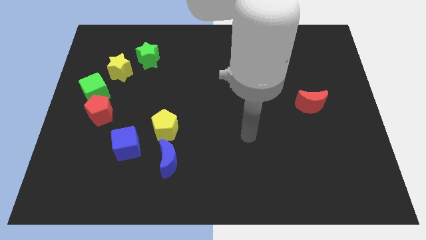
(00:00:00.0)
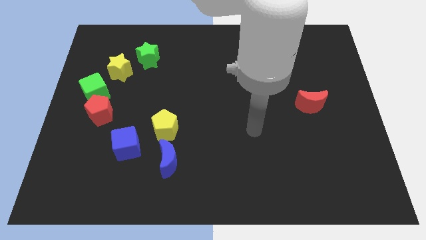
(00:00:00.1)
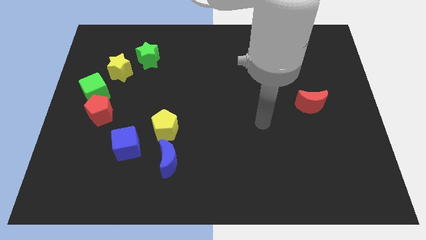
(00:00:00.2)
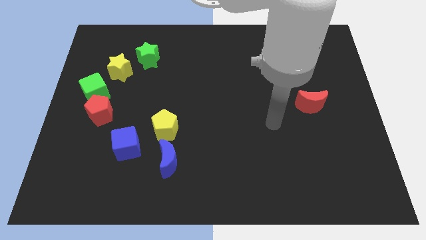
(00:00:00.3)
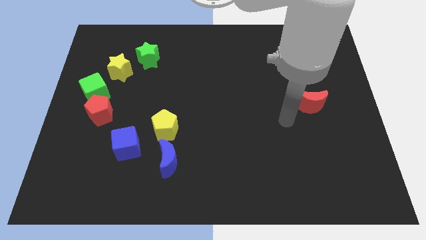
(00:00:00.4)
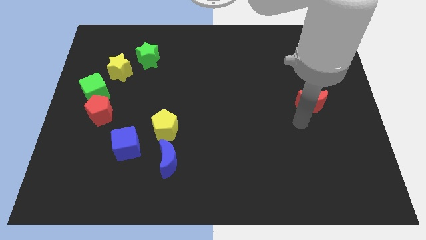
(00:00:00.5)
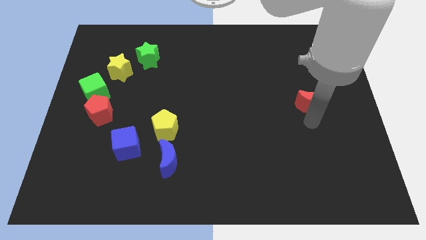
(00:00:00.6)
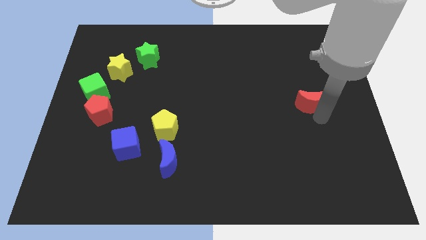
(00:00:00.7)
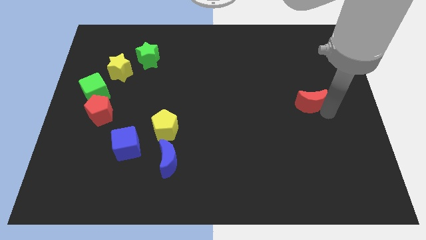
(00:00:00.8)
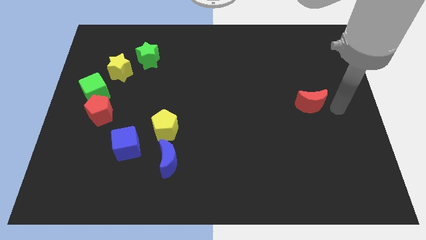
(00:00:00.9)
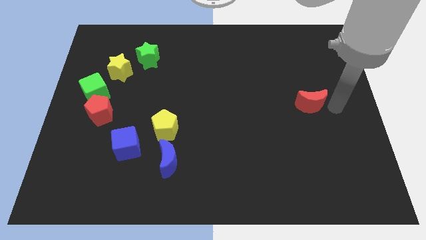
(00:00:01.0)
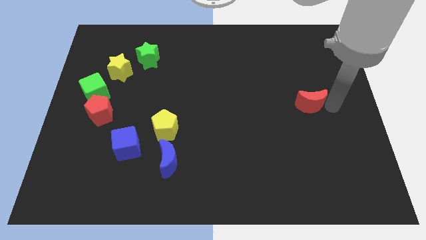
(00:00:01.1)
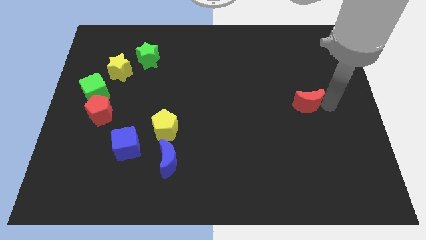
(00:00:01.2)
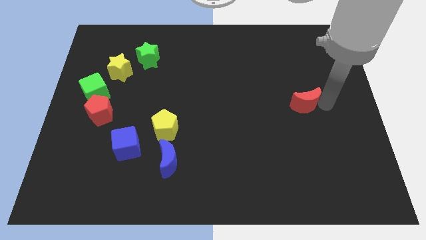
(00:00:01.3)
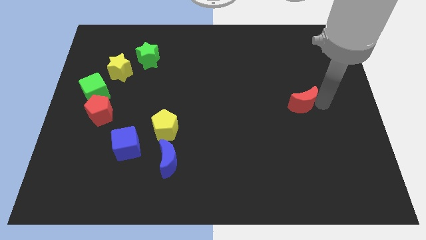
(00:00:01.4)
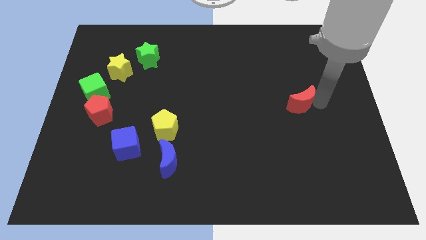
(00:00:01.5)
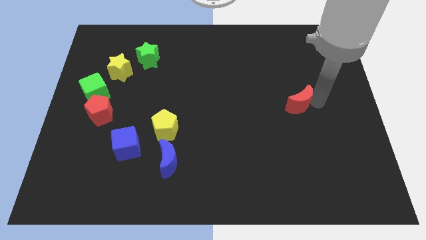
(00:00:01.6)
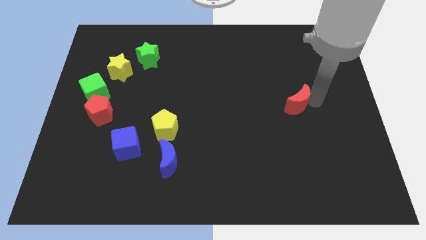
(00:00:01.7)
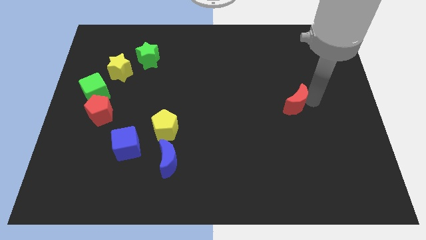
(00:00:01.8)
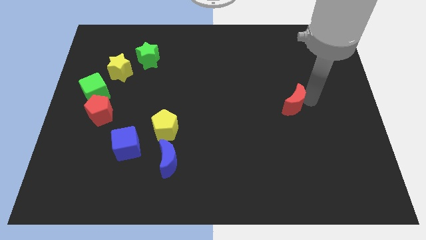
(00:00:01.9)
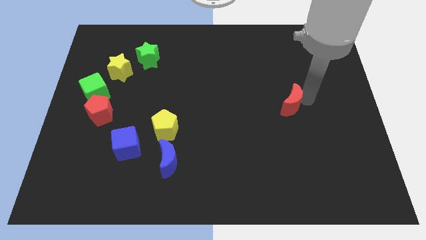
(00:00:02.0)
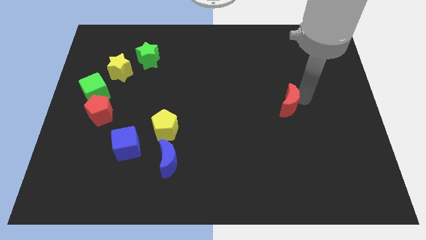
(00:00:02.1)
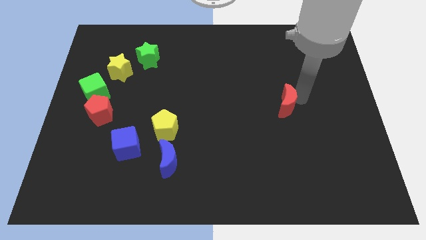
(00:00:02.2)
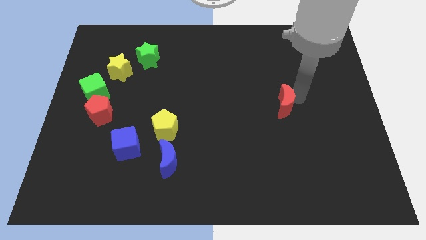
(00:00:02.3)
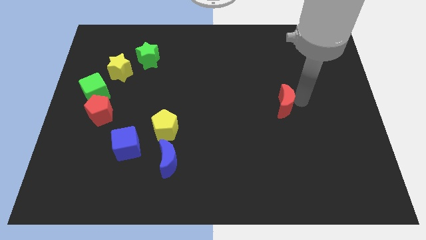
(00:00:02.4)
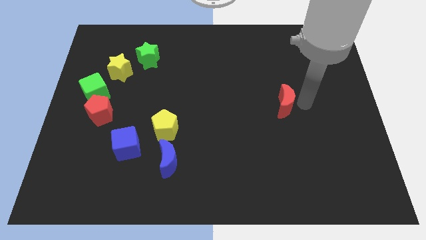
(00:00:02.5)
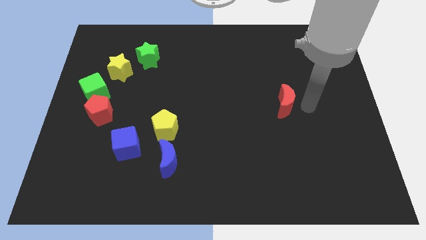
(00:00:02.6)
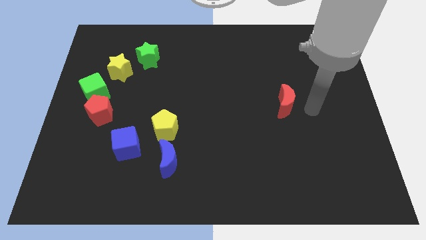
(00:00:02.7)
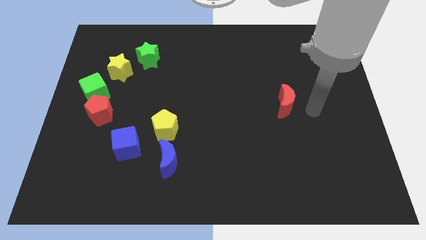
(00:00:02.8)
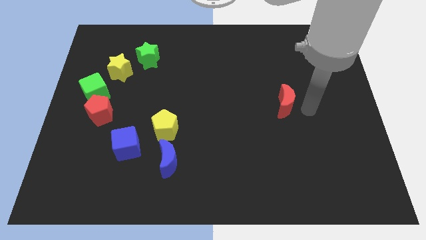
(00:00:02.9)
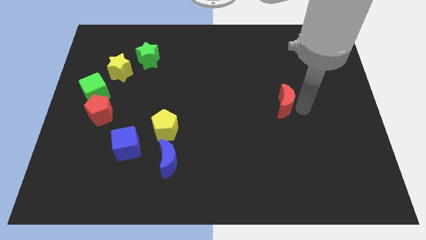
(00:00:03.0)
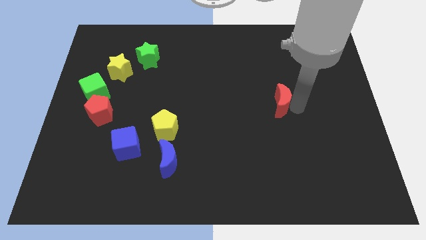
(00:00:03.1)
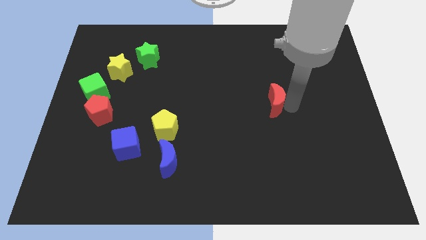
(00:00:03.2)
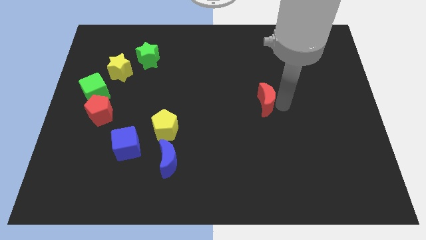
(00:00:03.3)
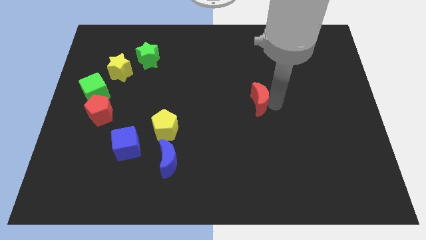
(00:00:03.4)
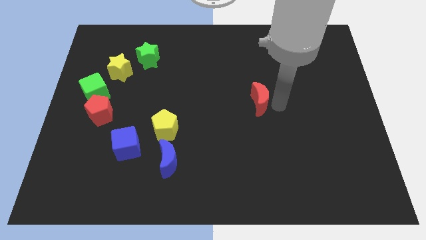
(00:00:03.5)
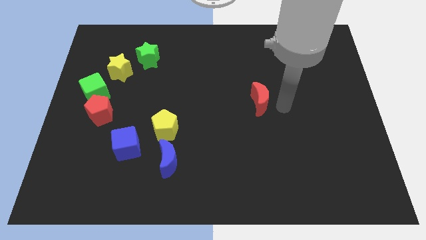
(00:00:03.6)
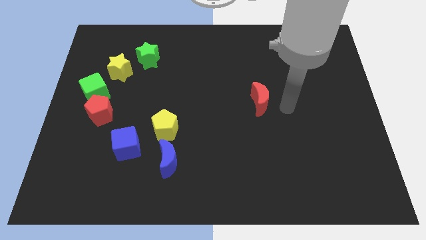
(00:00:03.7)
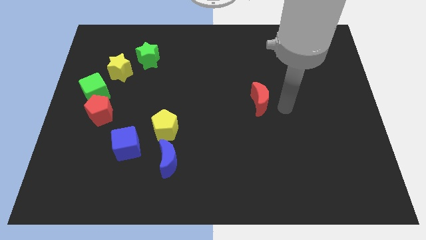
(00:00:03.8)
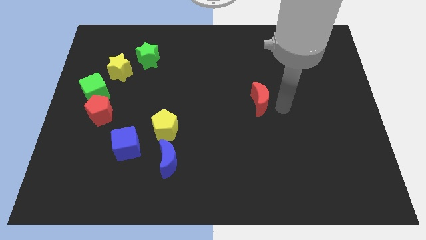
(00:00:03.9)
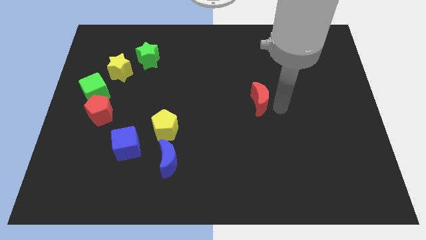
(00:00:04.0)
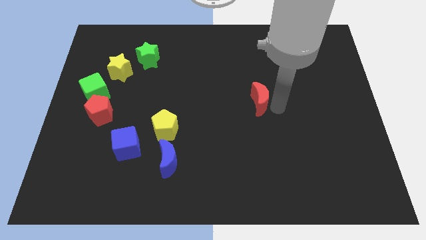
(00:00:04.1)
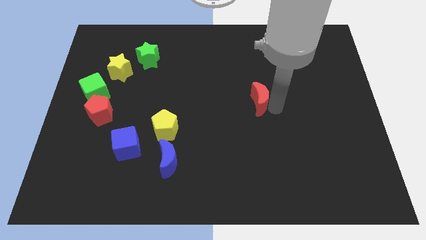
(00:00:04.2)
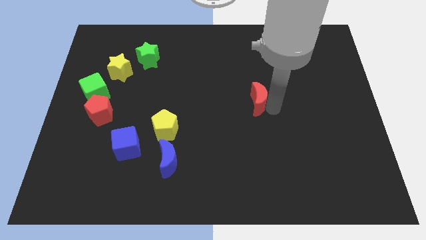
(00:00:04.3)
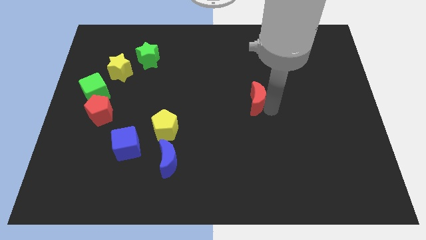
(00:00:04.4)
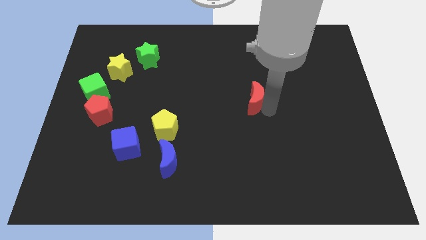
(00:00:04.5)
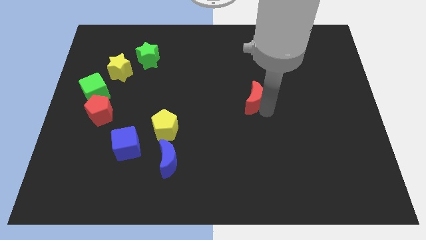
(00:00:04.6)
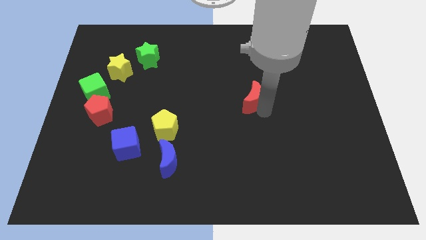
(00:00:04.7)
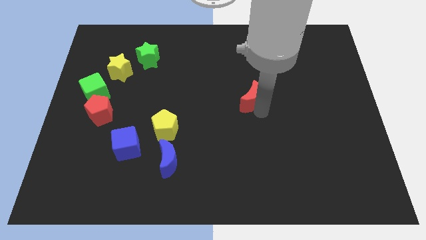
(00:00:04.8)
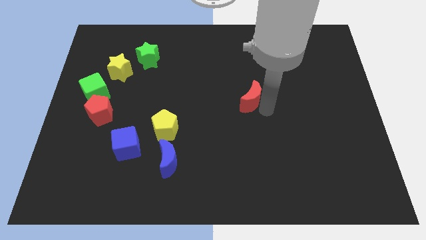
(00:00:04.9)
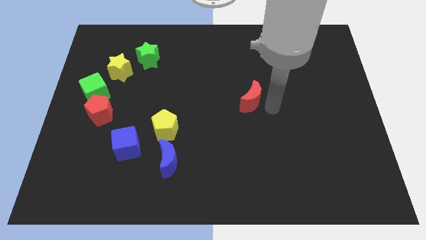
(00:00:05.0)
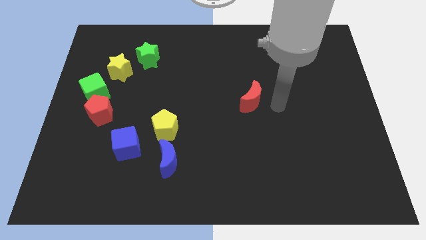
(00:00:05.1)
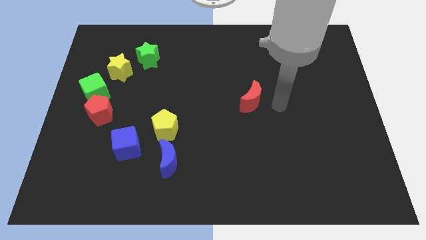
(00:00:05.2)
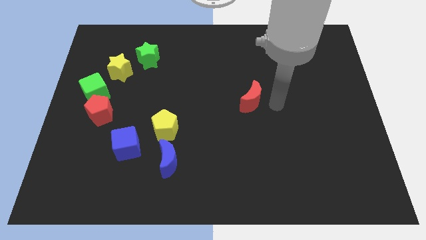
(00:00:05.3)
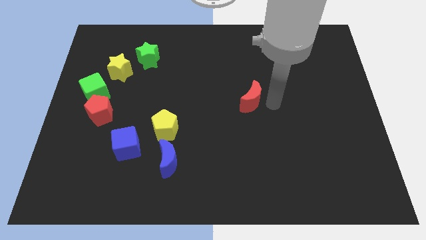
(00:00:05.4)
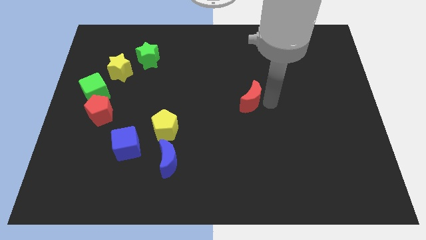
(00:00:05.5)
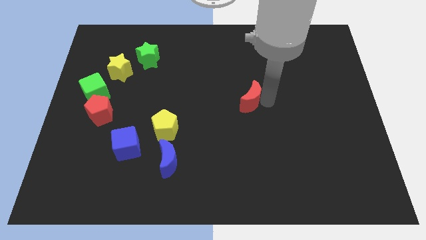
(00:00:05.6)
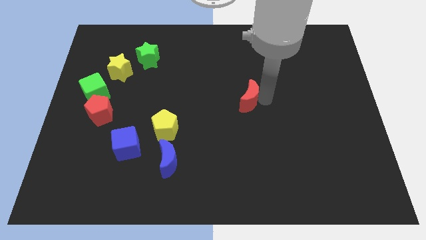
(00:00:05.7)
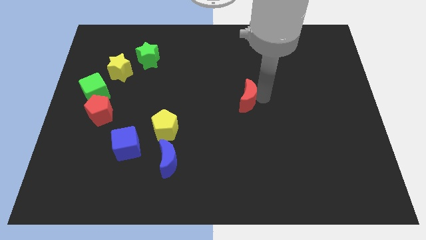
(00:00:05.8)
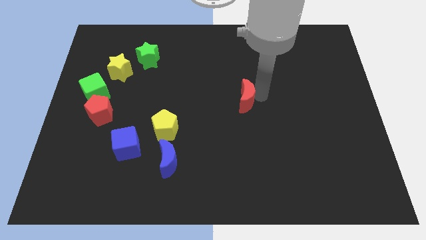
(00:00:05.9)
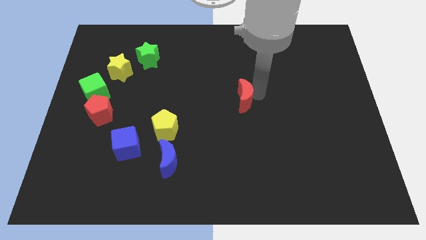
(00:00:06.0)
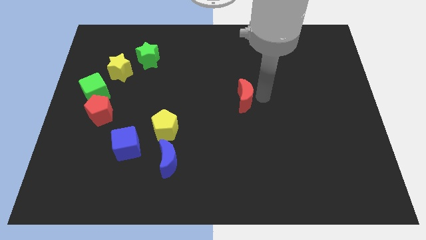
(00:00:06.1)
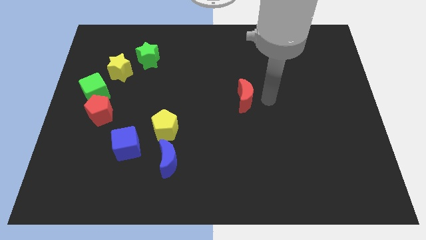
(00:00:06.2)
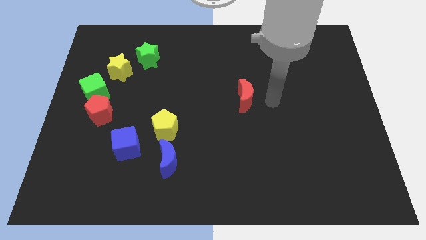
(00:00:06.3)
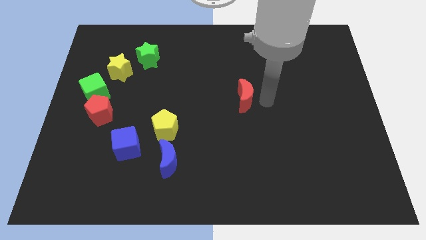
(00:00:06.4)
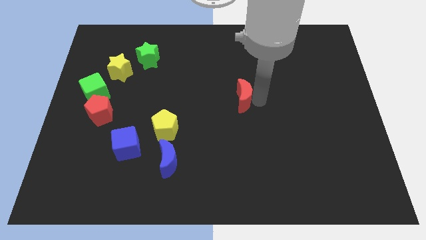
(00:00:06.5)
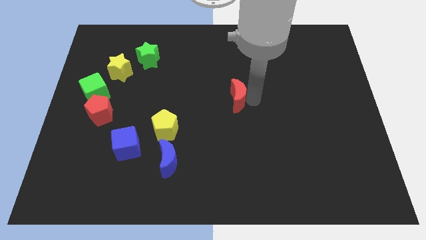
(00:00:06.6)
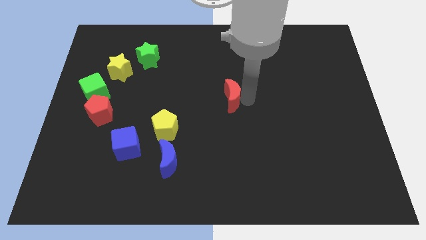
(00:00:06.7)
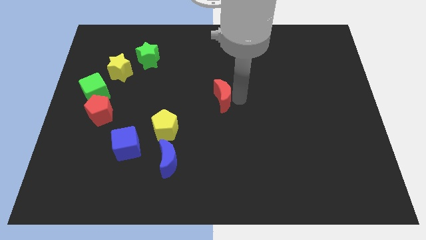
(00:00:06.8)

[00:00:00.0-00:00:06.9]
slide the red moon to the left

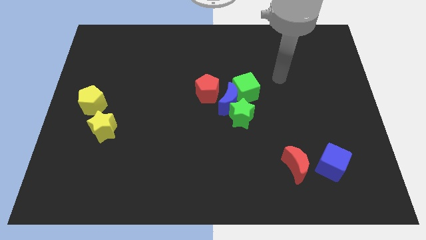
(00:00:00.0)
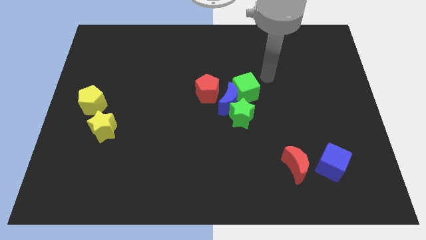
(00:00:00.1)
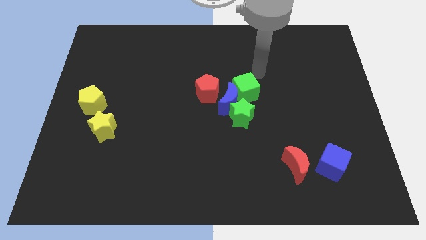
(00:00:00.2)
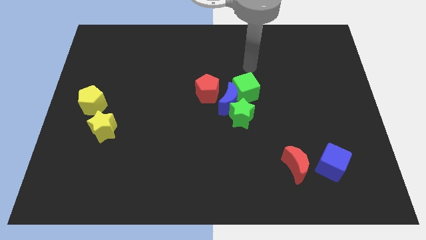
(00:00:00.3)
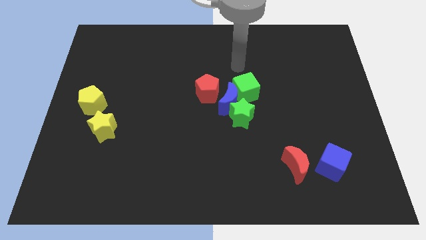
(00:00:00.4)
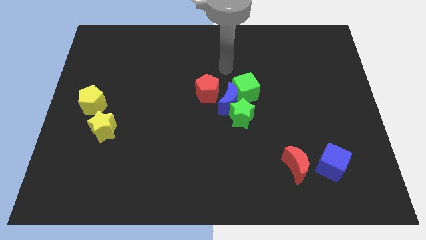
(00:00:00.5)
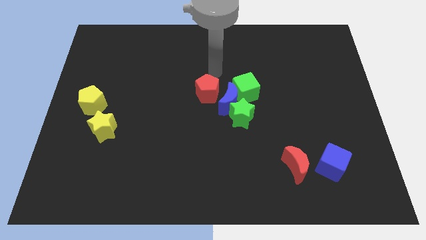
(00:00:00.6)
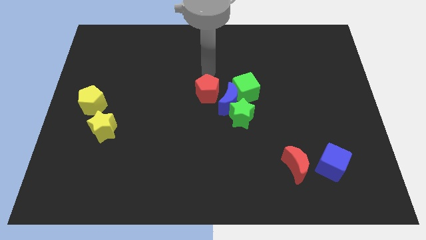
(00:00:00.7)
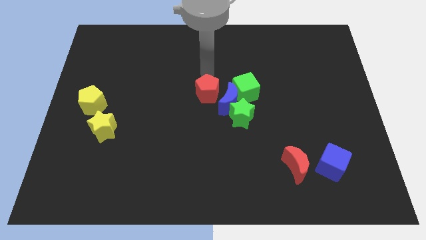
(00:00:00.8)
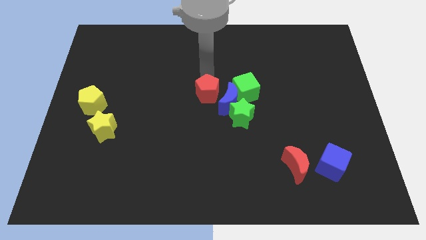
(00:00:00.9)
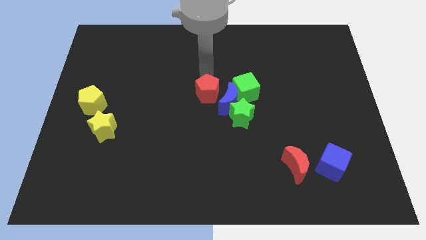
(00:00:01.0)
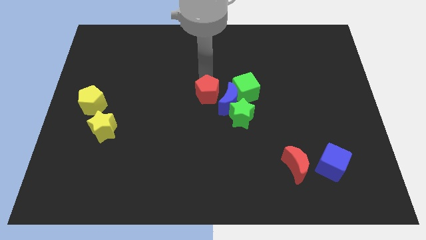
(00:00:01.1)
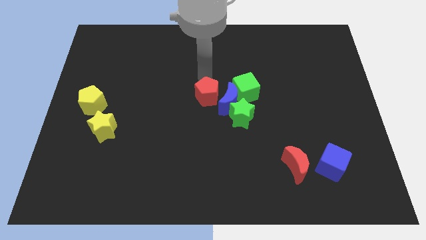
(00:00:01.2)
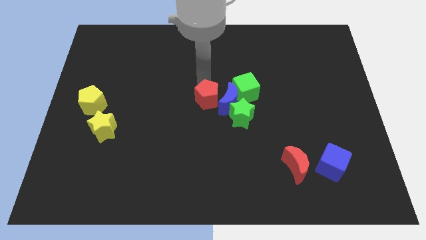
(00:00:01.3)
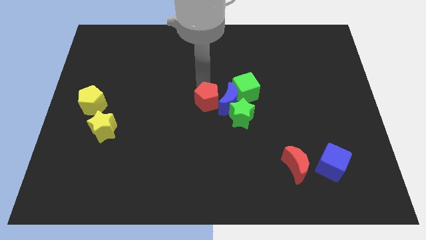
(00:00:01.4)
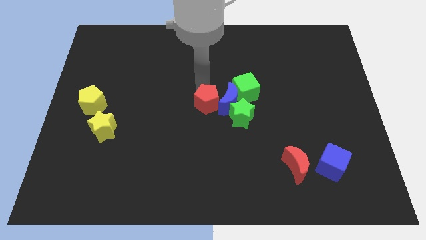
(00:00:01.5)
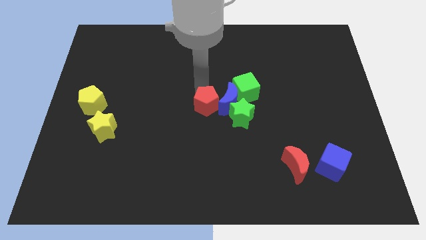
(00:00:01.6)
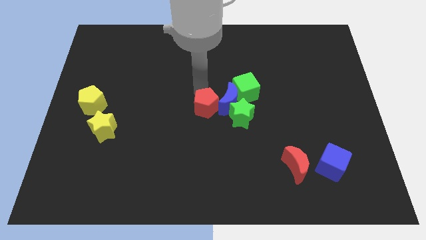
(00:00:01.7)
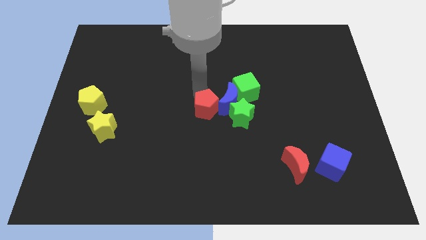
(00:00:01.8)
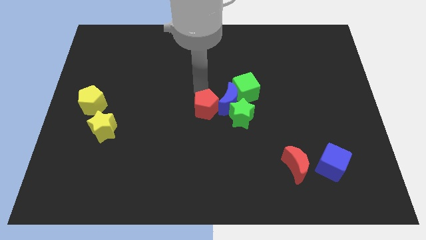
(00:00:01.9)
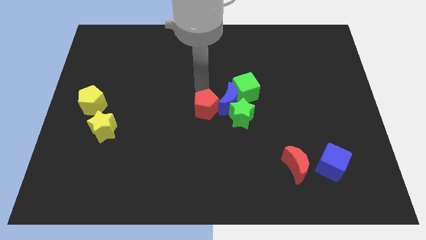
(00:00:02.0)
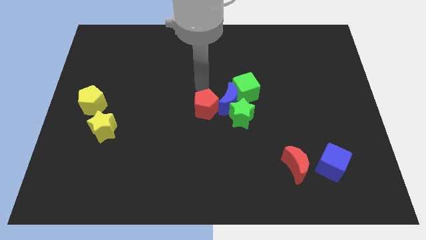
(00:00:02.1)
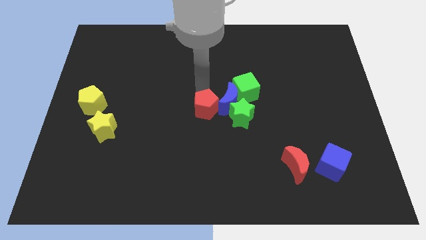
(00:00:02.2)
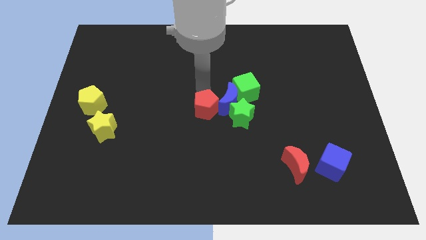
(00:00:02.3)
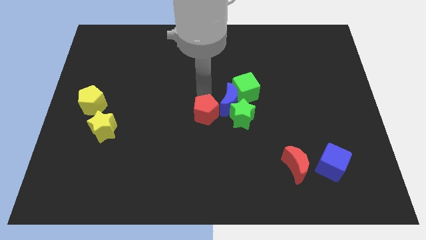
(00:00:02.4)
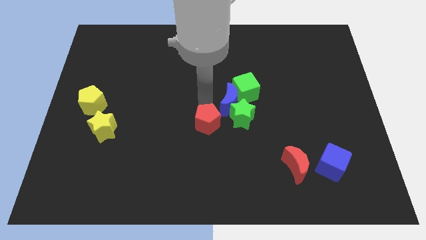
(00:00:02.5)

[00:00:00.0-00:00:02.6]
slightly slide the red pentagon down
